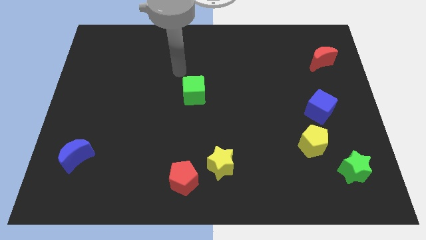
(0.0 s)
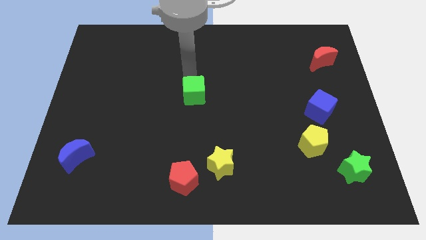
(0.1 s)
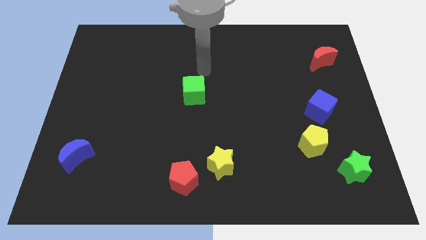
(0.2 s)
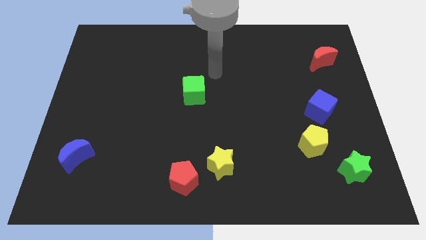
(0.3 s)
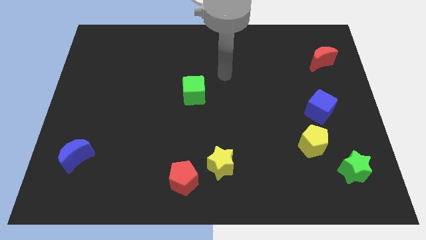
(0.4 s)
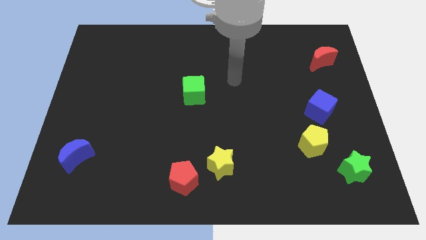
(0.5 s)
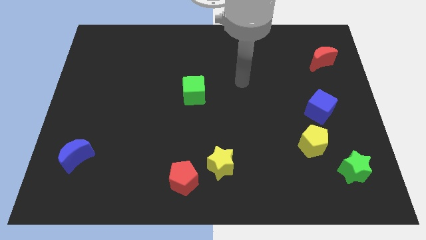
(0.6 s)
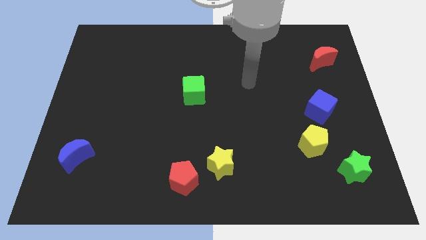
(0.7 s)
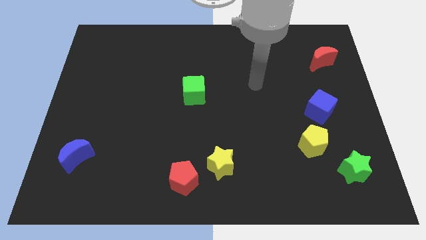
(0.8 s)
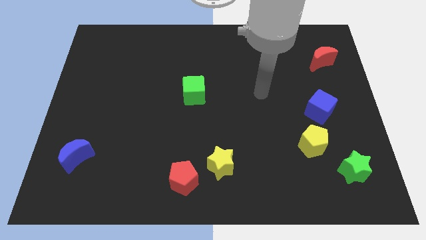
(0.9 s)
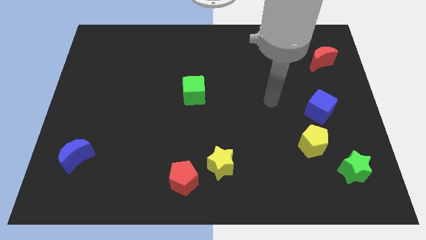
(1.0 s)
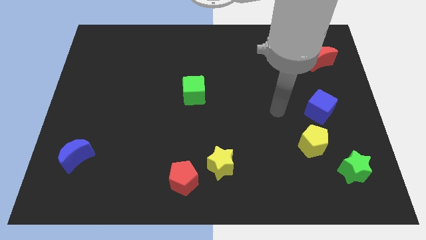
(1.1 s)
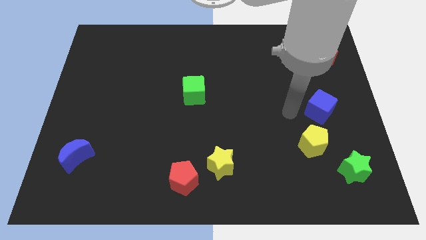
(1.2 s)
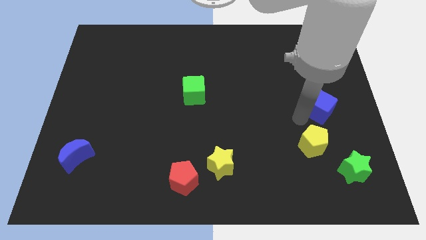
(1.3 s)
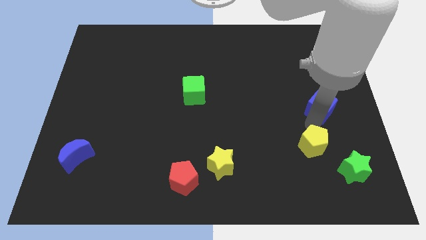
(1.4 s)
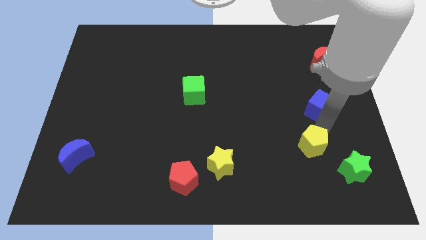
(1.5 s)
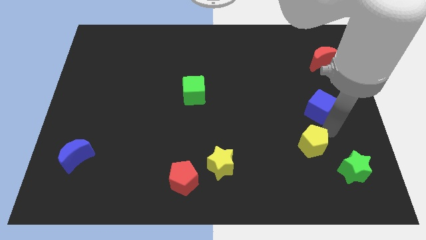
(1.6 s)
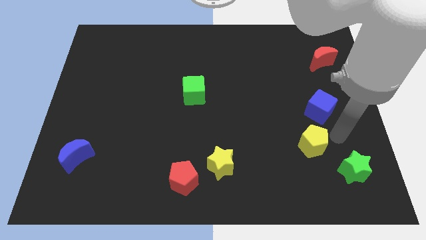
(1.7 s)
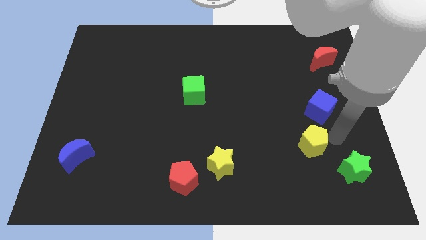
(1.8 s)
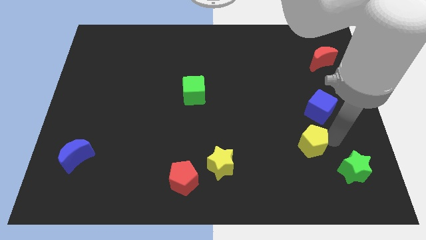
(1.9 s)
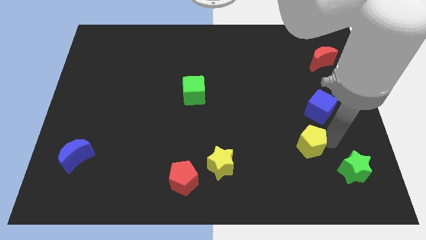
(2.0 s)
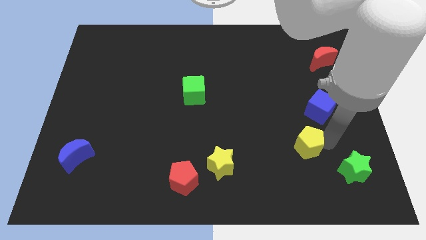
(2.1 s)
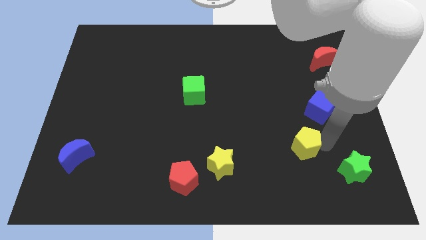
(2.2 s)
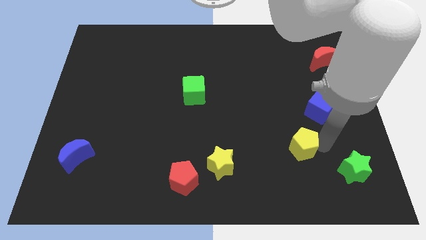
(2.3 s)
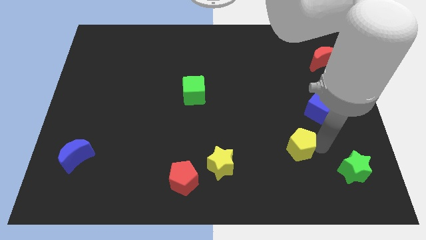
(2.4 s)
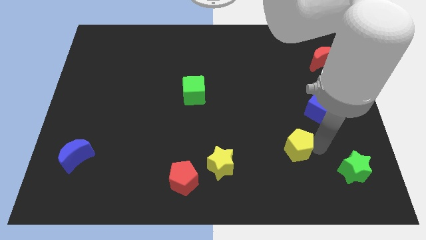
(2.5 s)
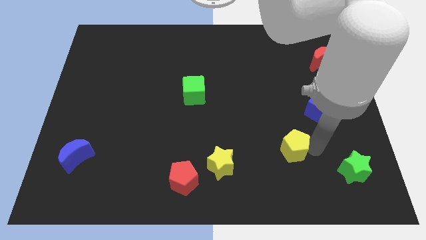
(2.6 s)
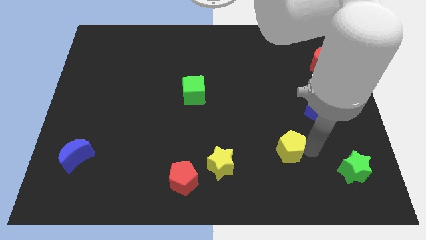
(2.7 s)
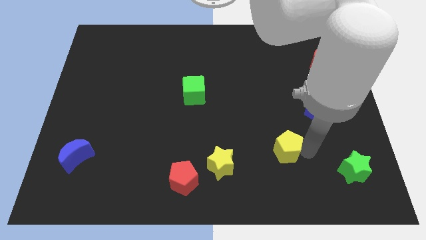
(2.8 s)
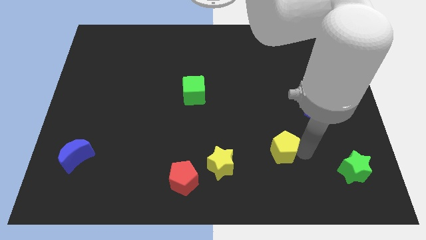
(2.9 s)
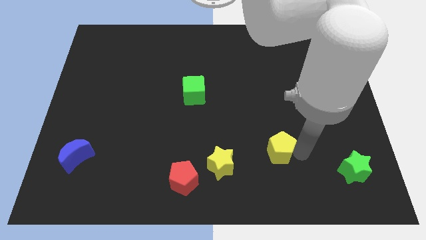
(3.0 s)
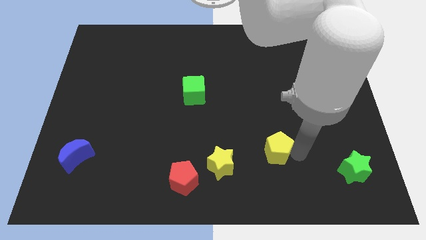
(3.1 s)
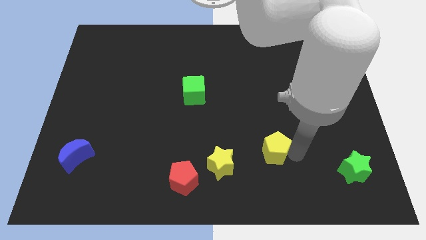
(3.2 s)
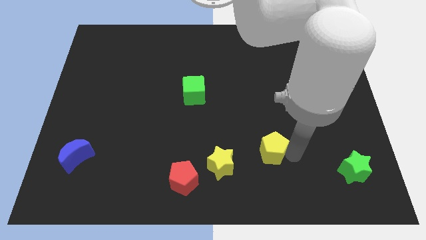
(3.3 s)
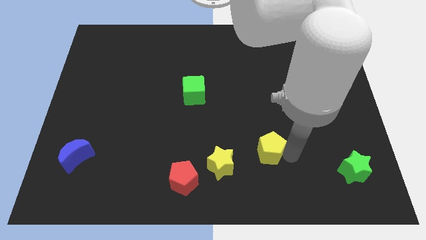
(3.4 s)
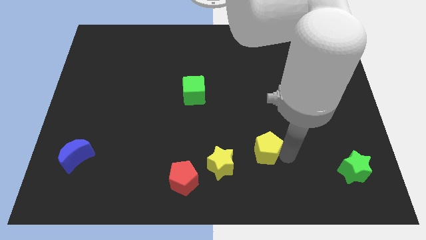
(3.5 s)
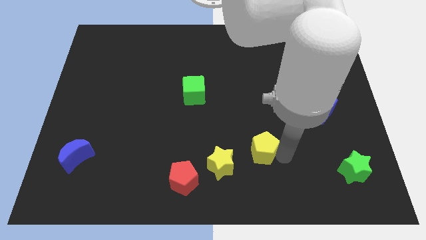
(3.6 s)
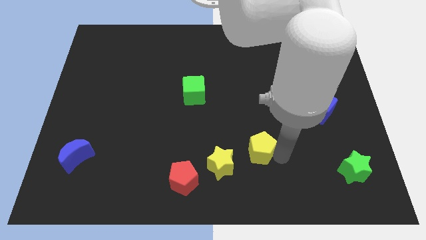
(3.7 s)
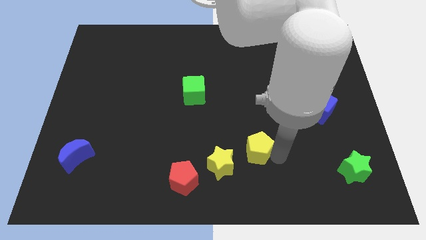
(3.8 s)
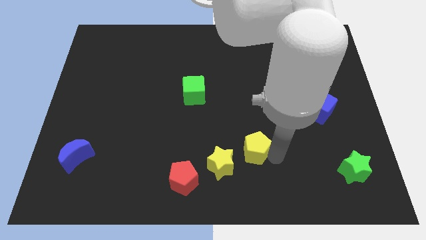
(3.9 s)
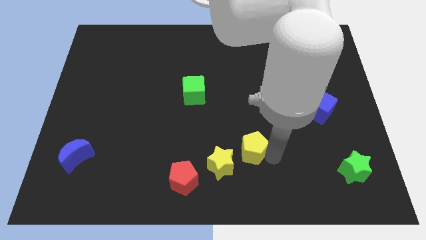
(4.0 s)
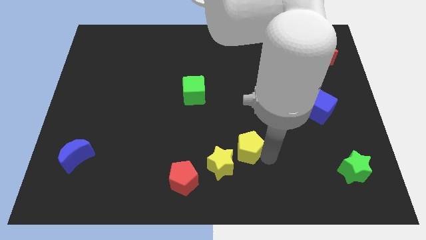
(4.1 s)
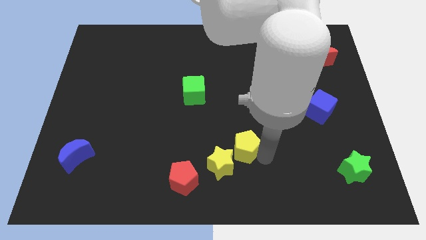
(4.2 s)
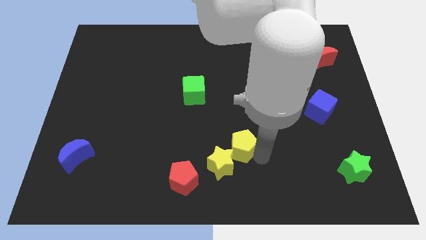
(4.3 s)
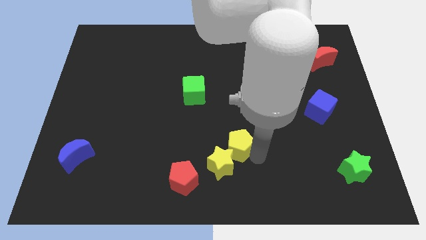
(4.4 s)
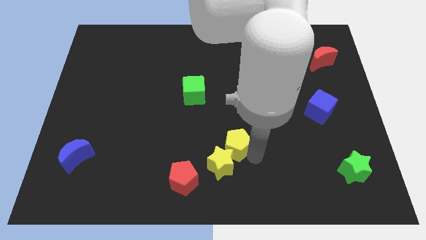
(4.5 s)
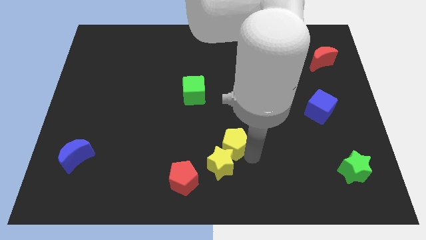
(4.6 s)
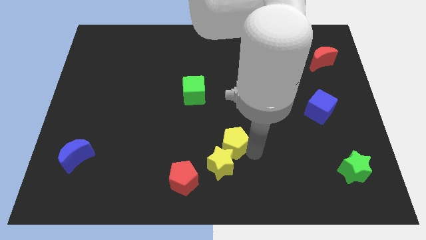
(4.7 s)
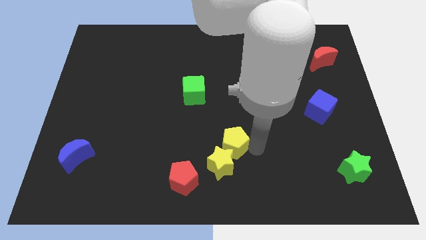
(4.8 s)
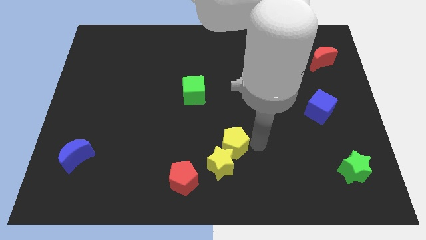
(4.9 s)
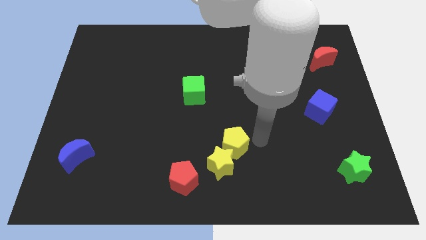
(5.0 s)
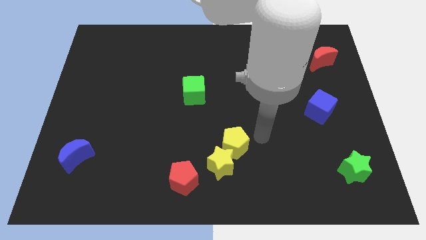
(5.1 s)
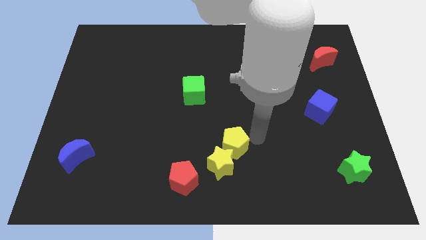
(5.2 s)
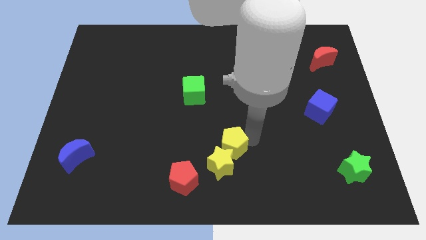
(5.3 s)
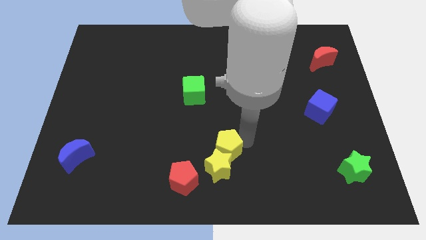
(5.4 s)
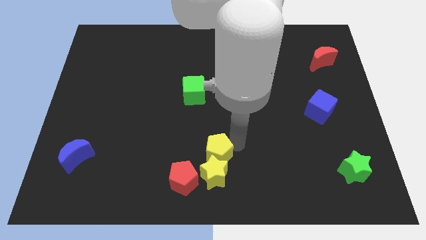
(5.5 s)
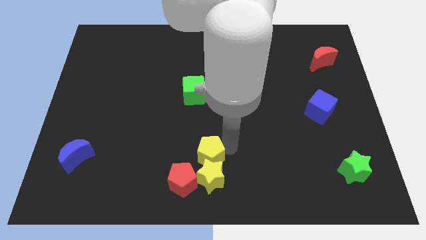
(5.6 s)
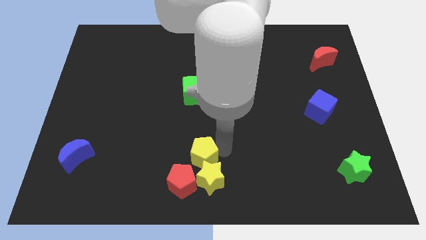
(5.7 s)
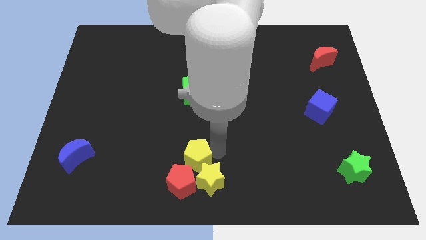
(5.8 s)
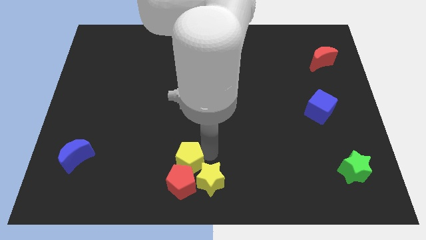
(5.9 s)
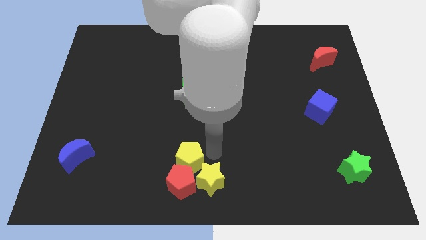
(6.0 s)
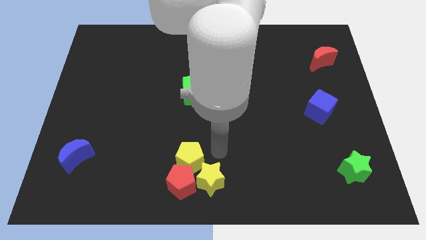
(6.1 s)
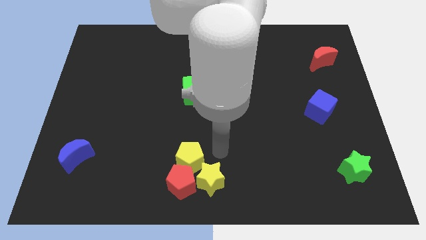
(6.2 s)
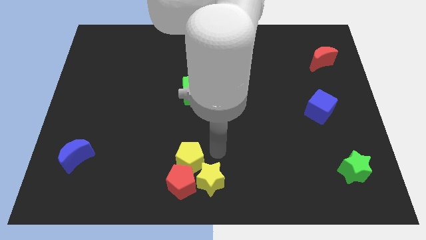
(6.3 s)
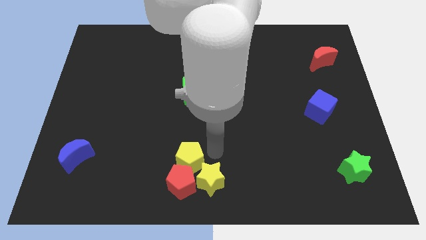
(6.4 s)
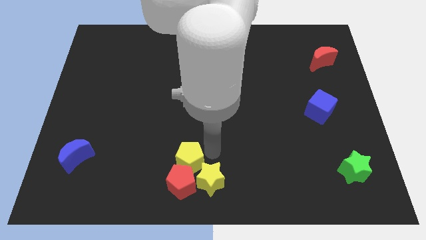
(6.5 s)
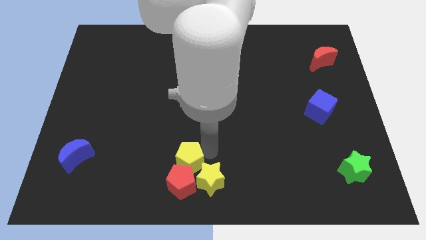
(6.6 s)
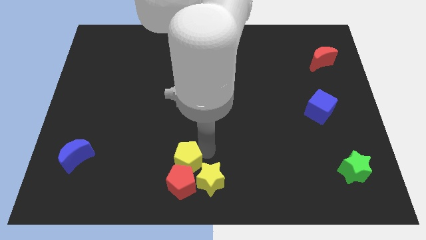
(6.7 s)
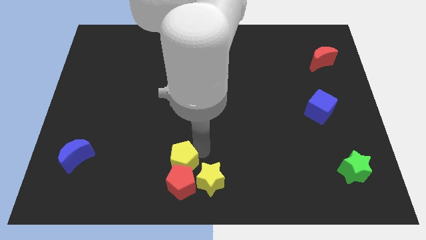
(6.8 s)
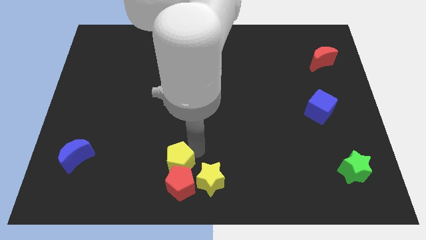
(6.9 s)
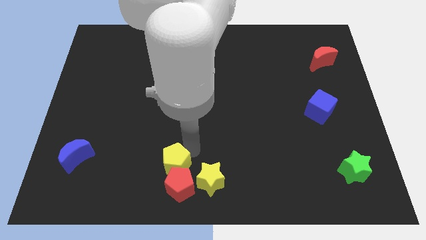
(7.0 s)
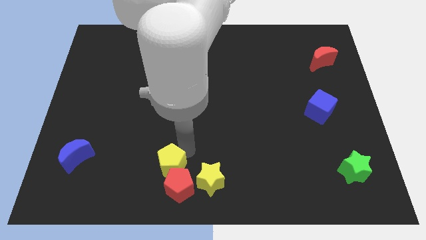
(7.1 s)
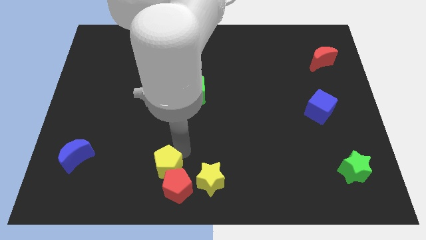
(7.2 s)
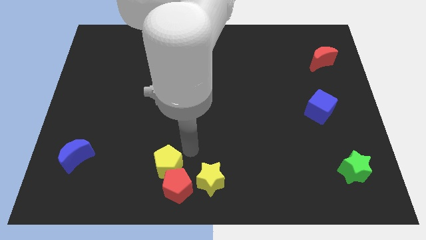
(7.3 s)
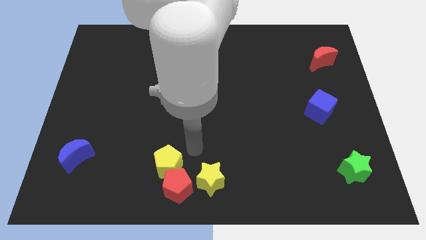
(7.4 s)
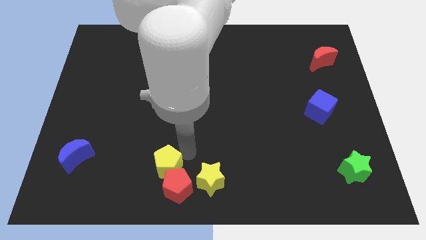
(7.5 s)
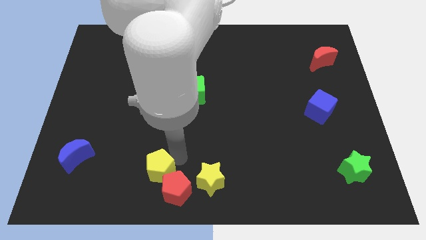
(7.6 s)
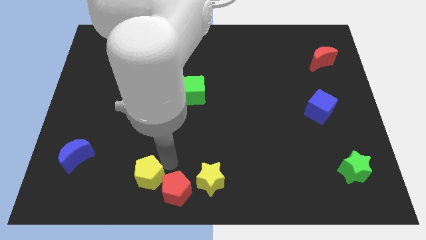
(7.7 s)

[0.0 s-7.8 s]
move the yellow pentagon to the left side of the red pentagon

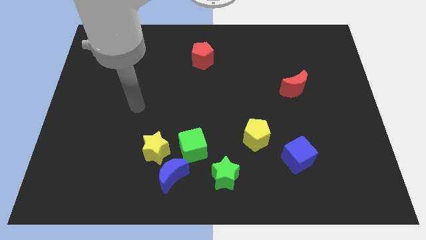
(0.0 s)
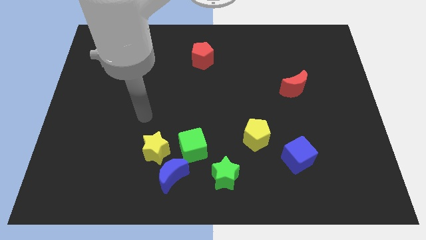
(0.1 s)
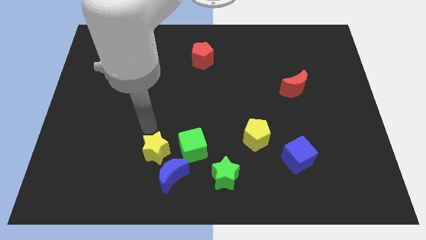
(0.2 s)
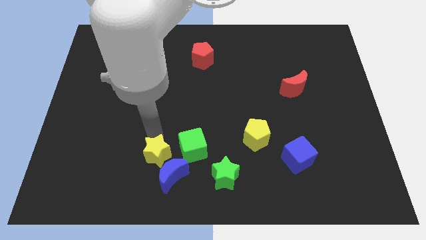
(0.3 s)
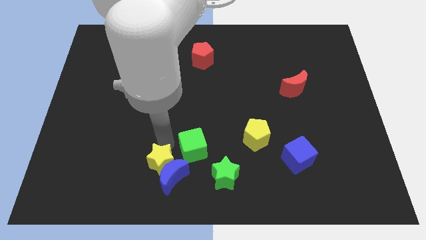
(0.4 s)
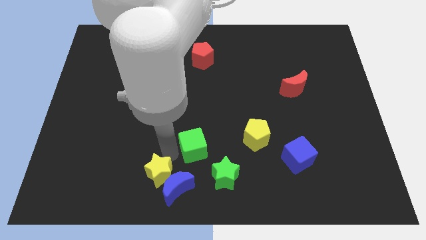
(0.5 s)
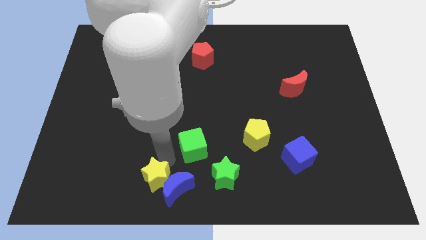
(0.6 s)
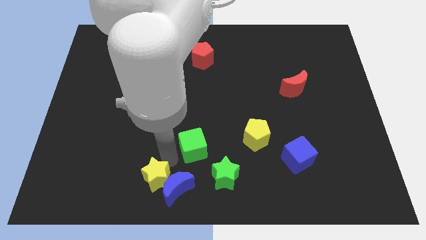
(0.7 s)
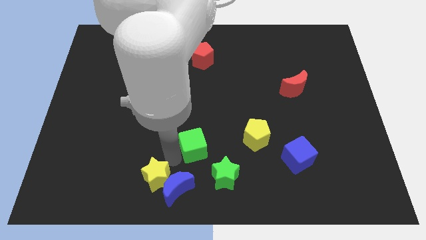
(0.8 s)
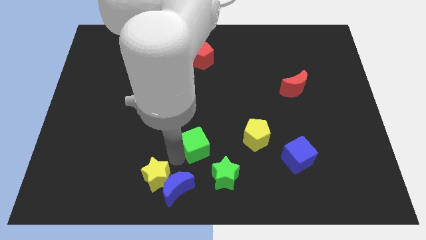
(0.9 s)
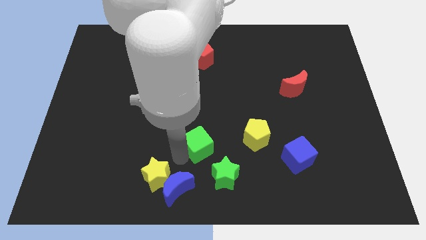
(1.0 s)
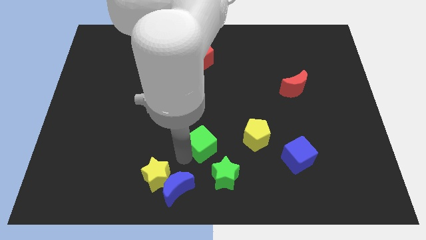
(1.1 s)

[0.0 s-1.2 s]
push the green cube above the green star
